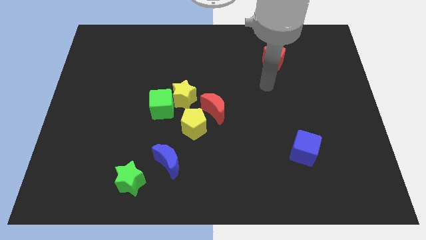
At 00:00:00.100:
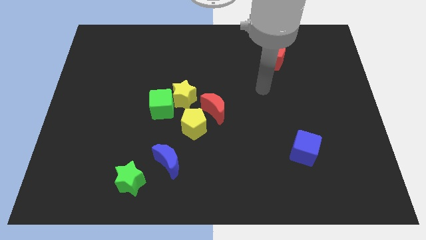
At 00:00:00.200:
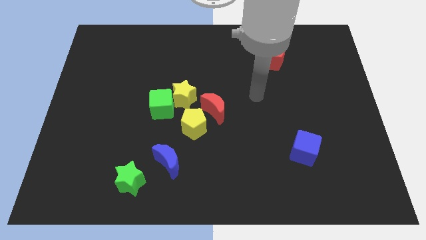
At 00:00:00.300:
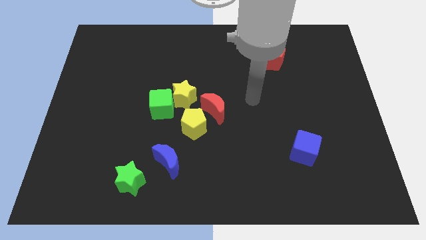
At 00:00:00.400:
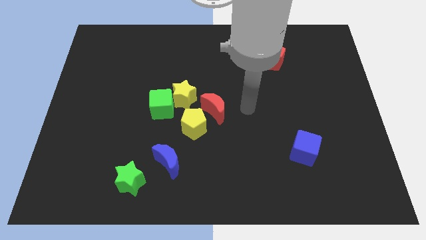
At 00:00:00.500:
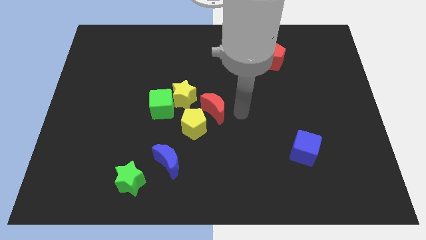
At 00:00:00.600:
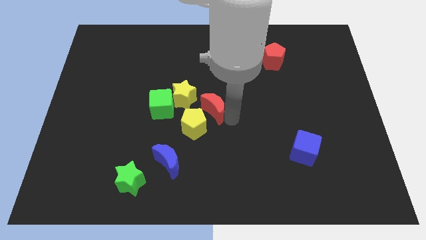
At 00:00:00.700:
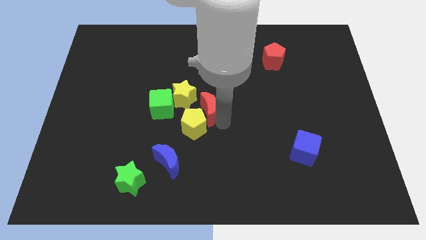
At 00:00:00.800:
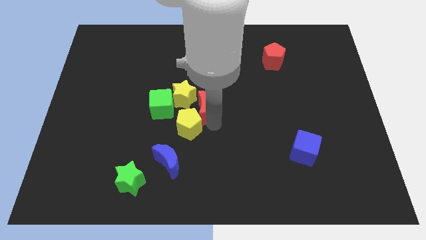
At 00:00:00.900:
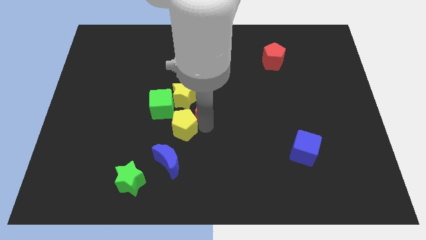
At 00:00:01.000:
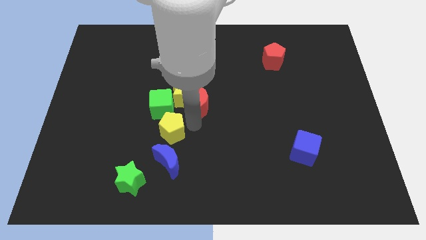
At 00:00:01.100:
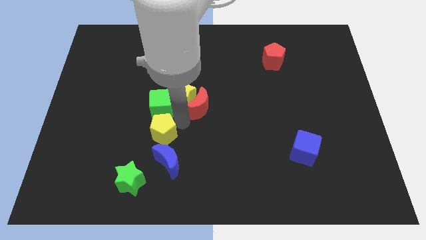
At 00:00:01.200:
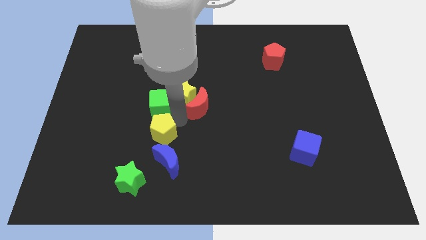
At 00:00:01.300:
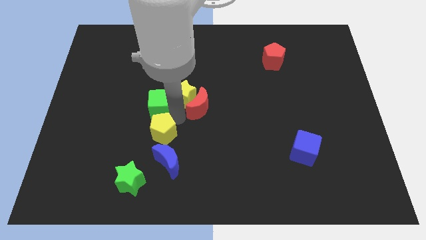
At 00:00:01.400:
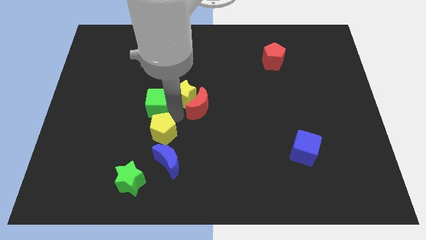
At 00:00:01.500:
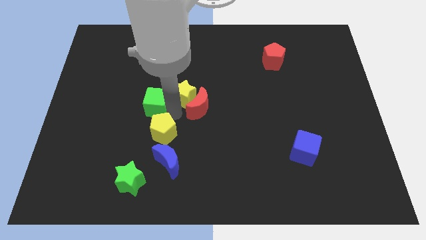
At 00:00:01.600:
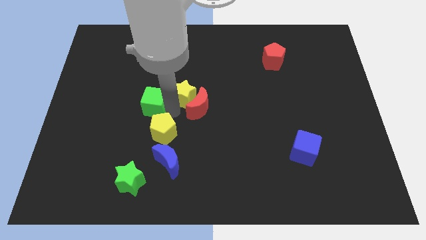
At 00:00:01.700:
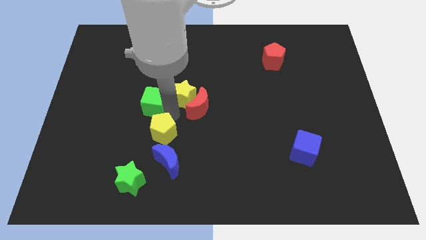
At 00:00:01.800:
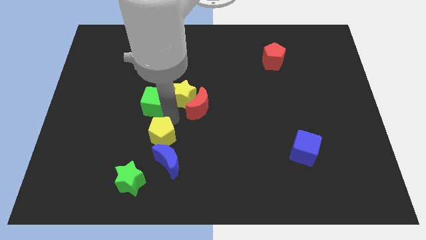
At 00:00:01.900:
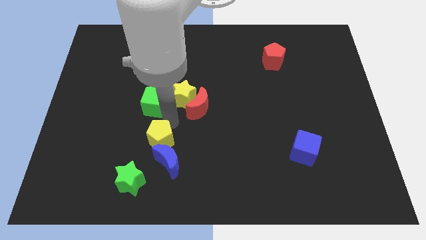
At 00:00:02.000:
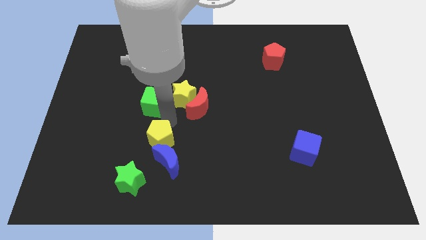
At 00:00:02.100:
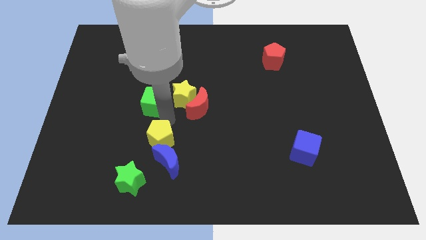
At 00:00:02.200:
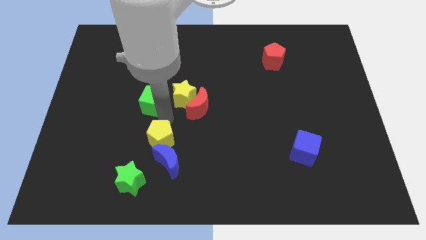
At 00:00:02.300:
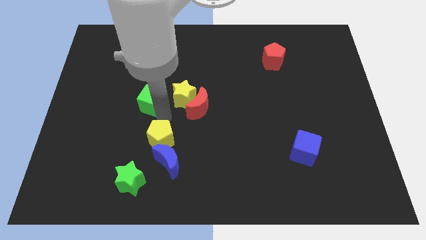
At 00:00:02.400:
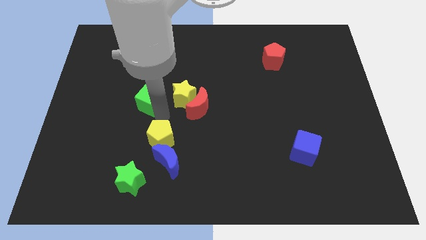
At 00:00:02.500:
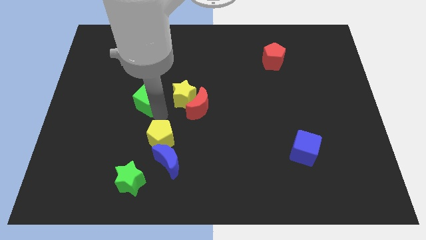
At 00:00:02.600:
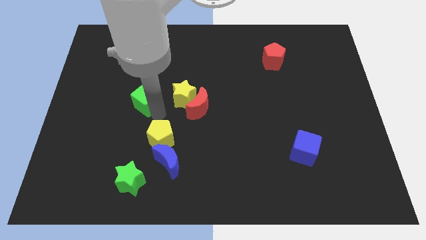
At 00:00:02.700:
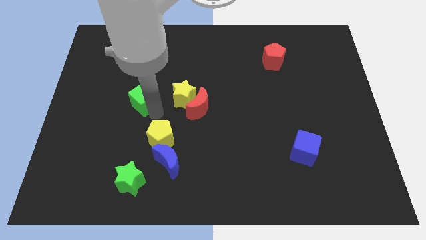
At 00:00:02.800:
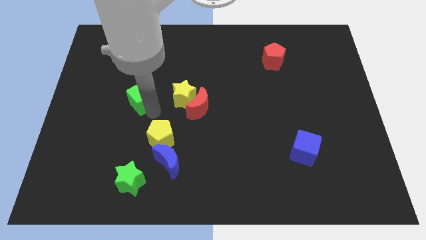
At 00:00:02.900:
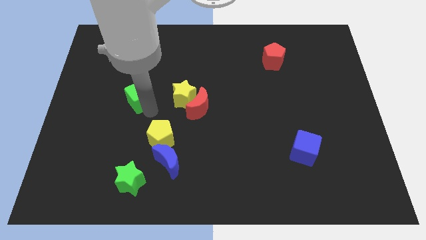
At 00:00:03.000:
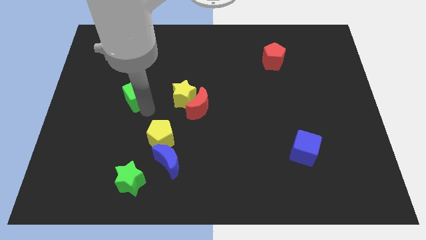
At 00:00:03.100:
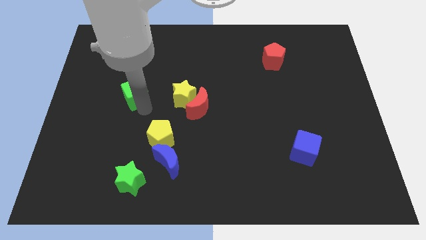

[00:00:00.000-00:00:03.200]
slightly push the green cube upwards and left diagonally

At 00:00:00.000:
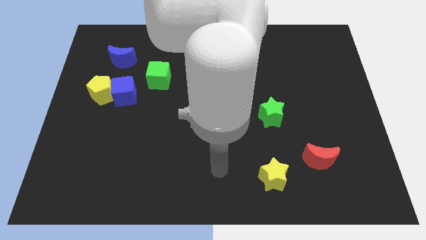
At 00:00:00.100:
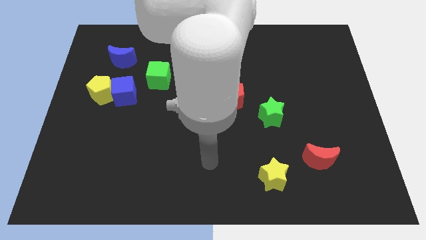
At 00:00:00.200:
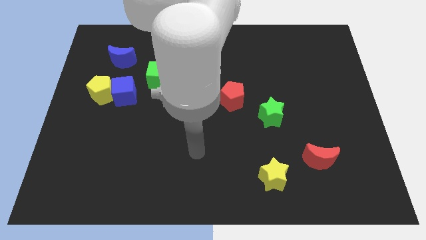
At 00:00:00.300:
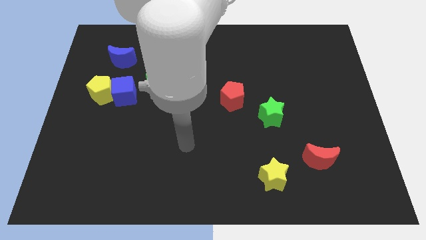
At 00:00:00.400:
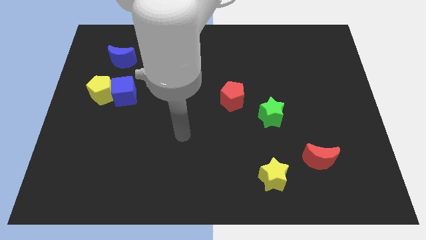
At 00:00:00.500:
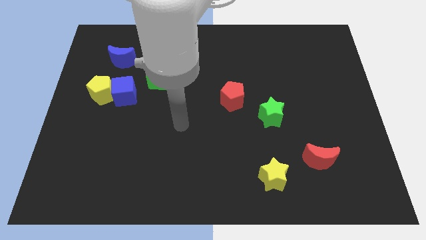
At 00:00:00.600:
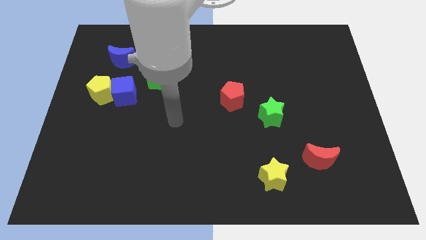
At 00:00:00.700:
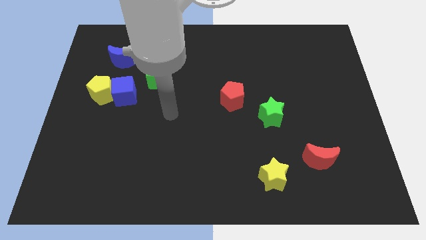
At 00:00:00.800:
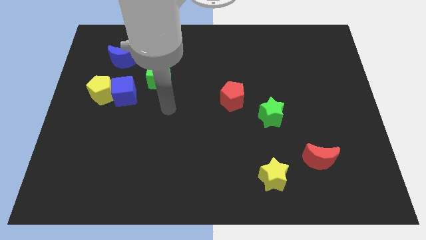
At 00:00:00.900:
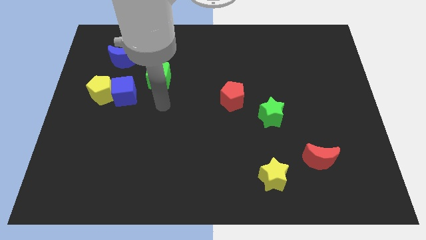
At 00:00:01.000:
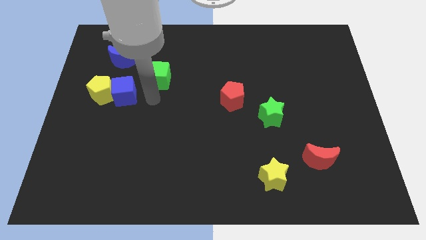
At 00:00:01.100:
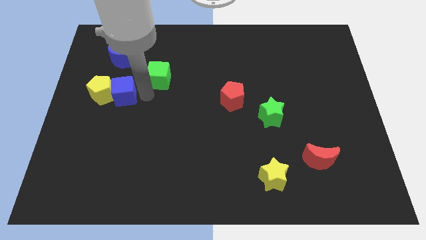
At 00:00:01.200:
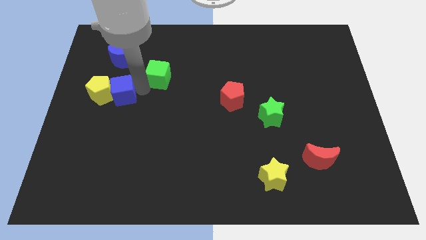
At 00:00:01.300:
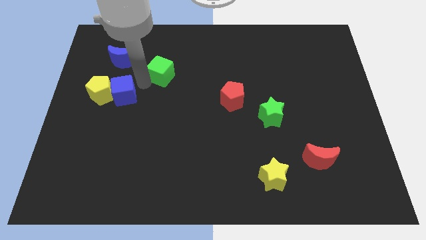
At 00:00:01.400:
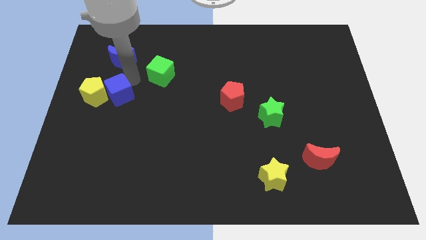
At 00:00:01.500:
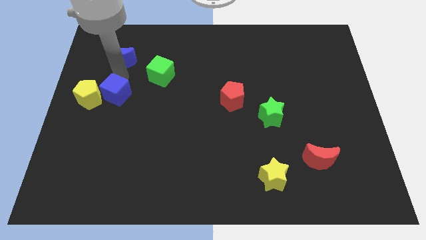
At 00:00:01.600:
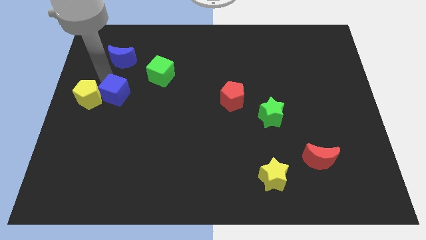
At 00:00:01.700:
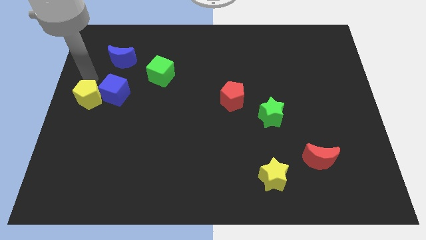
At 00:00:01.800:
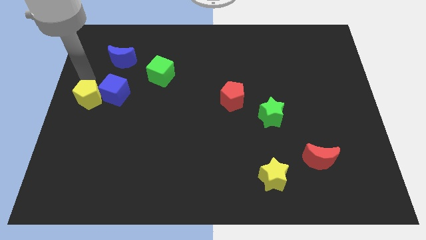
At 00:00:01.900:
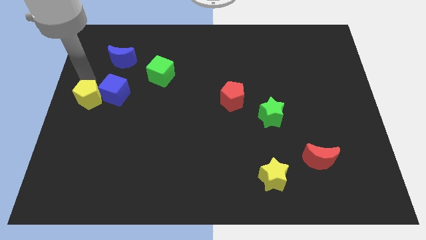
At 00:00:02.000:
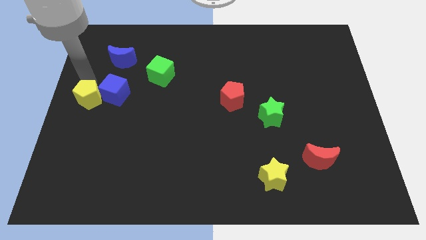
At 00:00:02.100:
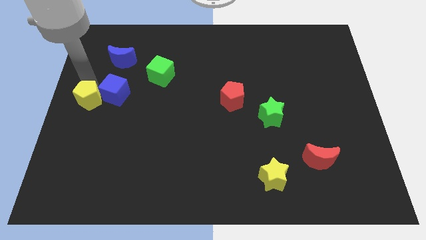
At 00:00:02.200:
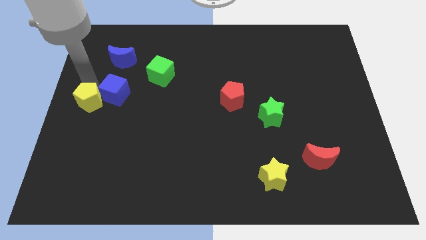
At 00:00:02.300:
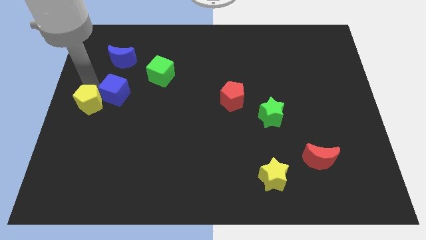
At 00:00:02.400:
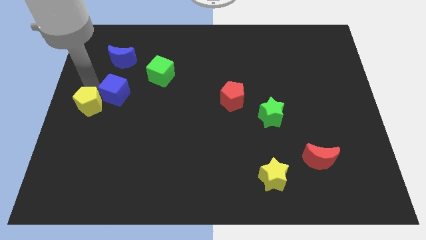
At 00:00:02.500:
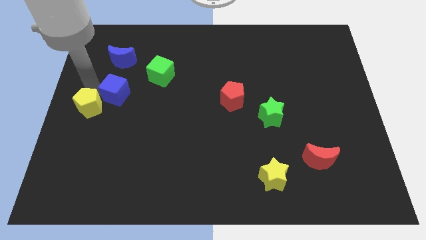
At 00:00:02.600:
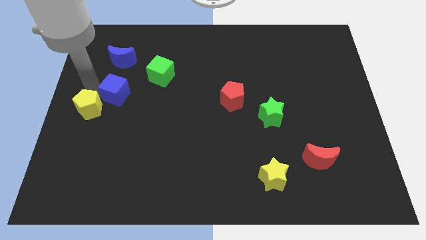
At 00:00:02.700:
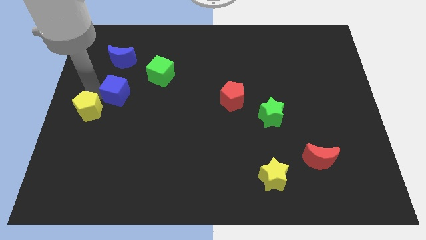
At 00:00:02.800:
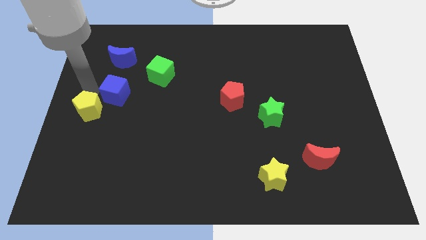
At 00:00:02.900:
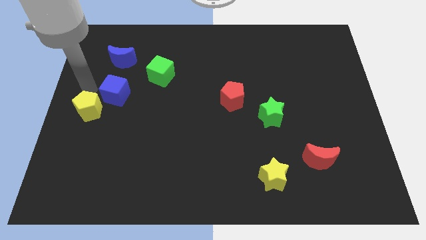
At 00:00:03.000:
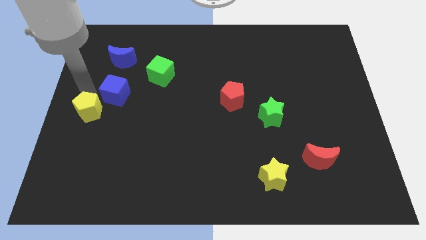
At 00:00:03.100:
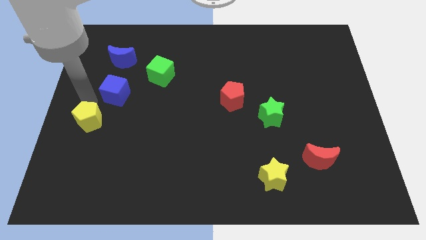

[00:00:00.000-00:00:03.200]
push the yellow pentagon downwards a little

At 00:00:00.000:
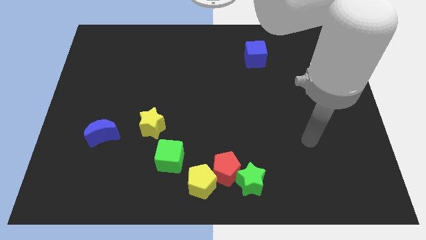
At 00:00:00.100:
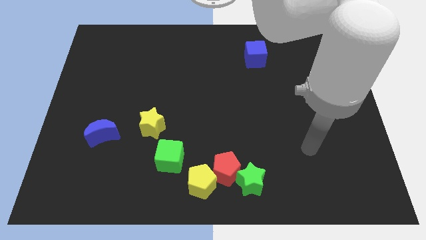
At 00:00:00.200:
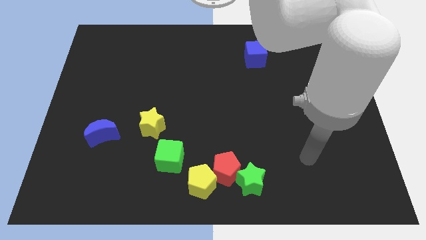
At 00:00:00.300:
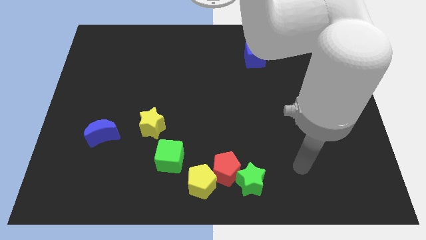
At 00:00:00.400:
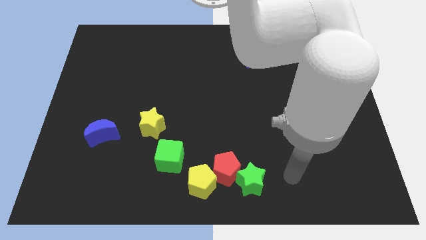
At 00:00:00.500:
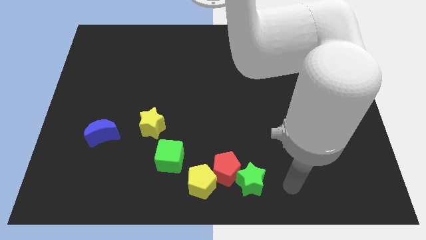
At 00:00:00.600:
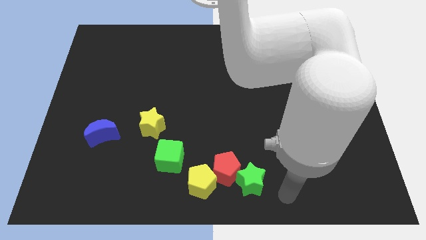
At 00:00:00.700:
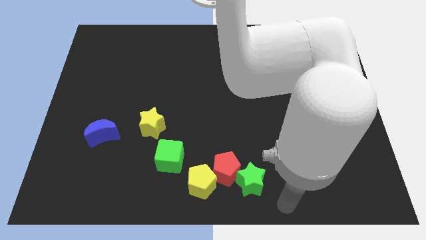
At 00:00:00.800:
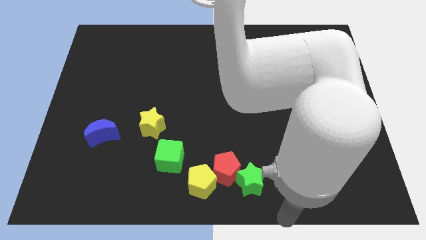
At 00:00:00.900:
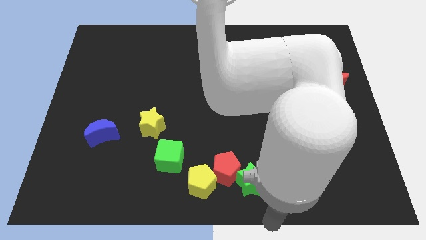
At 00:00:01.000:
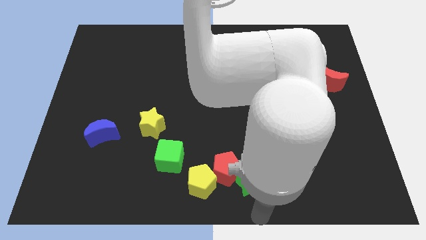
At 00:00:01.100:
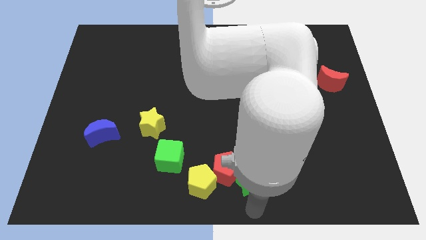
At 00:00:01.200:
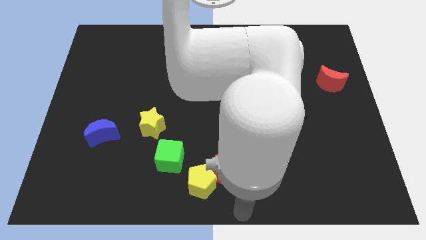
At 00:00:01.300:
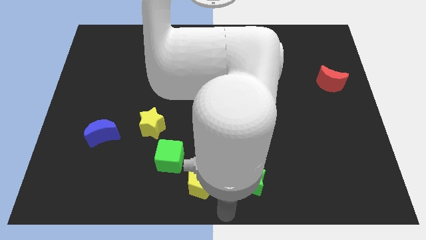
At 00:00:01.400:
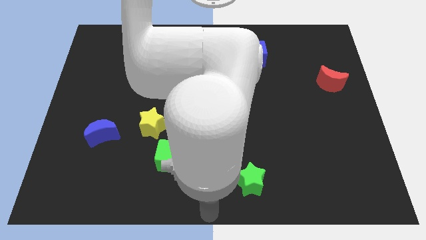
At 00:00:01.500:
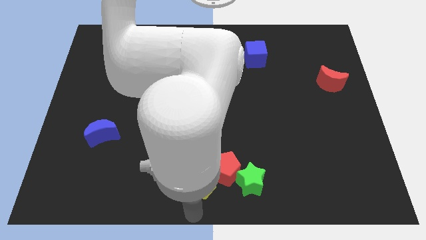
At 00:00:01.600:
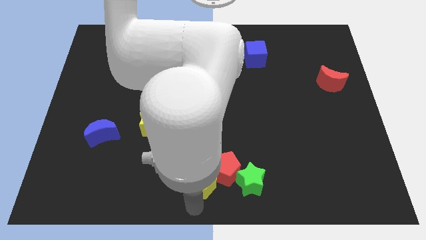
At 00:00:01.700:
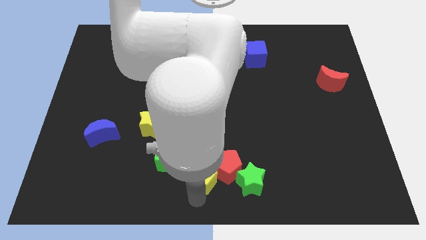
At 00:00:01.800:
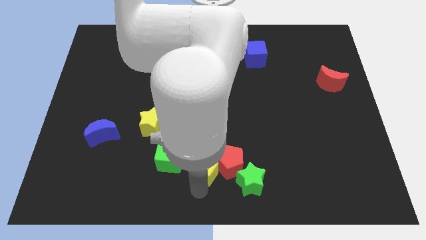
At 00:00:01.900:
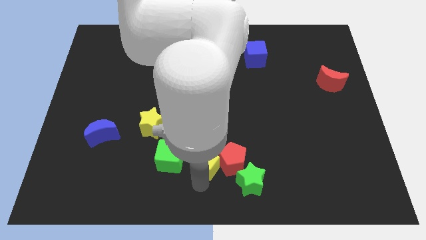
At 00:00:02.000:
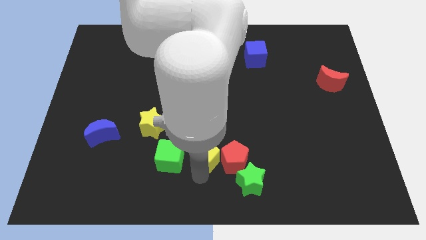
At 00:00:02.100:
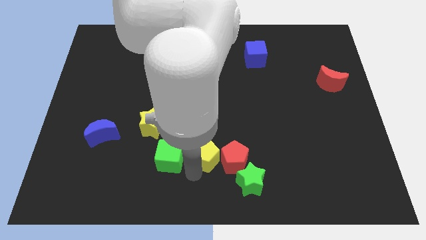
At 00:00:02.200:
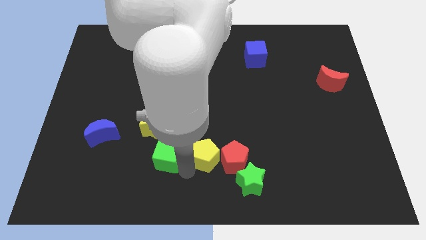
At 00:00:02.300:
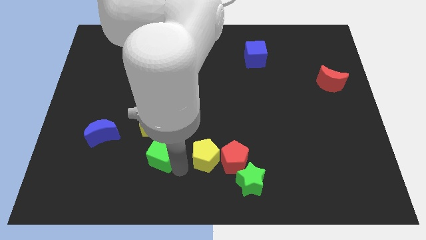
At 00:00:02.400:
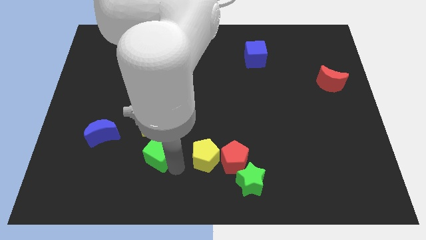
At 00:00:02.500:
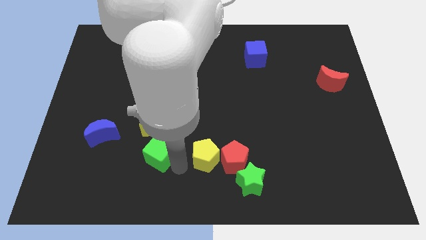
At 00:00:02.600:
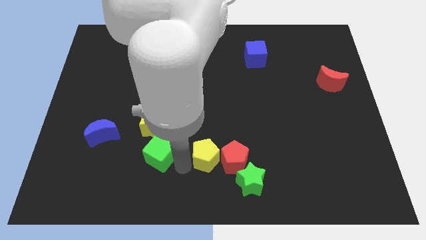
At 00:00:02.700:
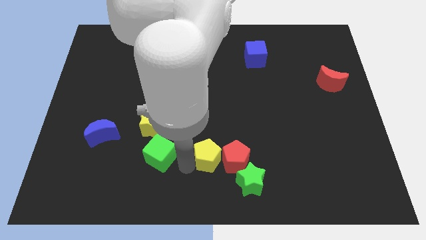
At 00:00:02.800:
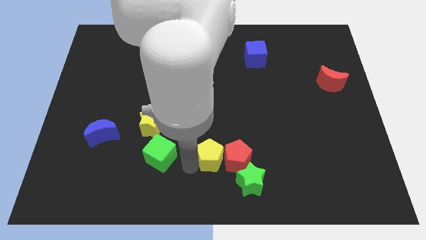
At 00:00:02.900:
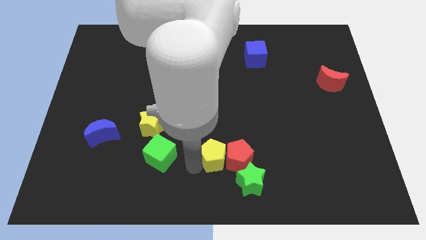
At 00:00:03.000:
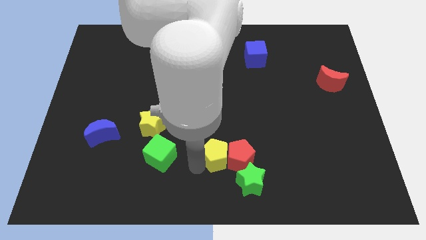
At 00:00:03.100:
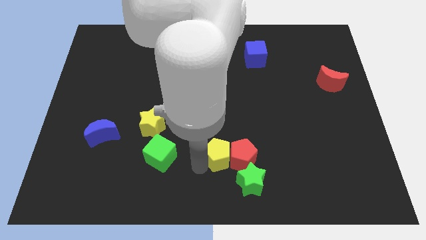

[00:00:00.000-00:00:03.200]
slightly move the yellow pentagon up and then to the right
